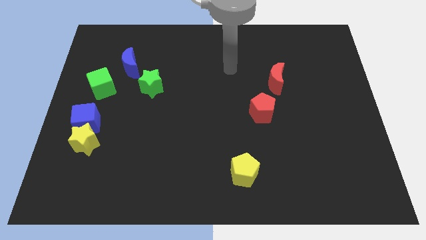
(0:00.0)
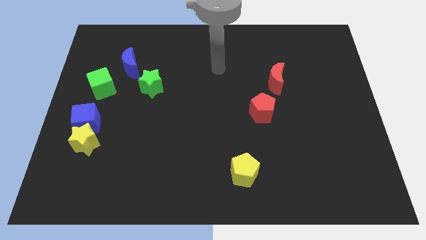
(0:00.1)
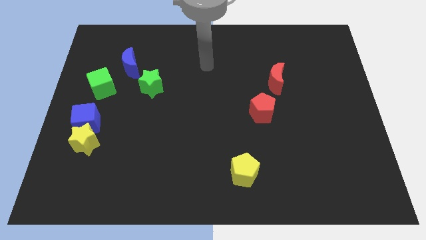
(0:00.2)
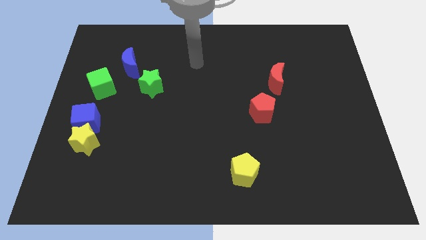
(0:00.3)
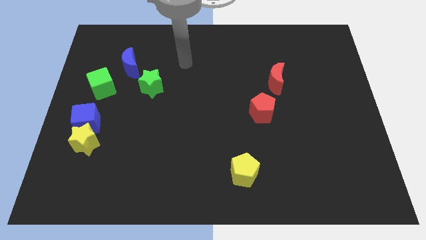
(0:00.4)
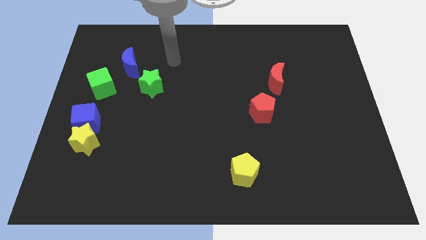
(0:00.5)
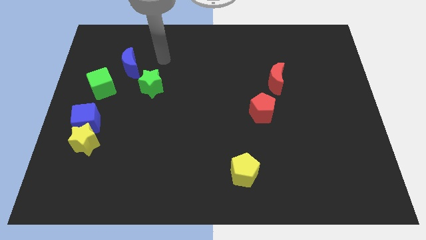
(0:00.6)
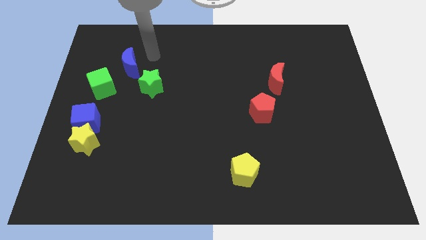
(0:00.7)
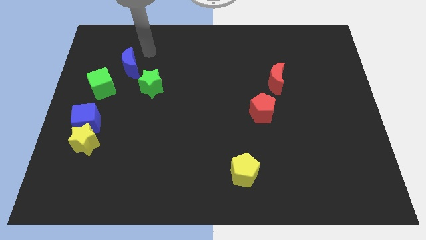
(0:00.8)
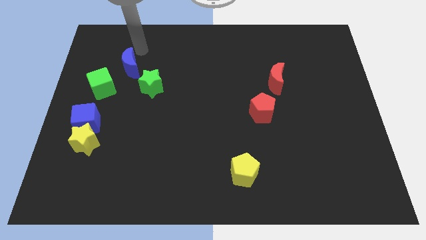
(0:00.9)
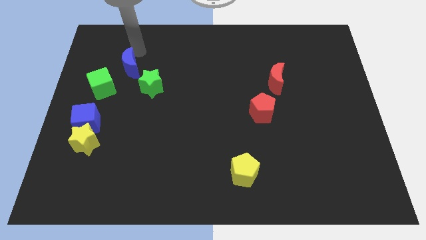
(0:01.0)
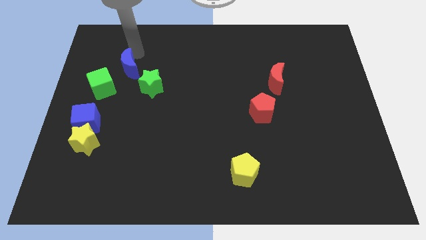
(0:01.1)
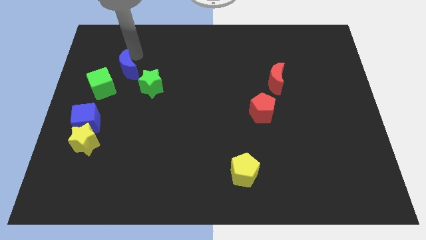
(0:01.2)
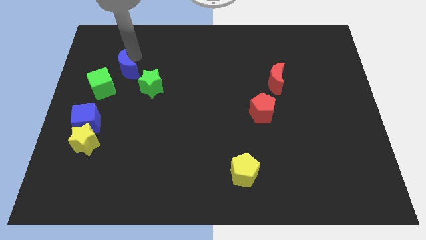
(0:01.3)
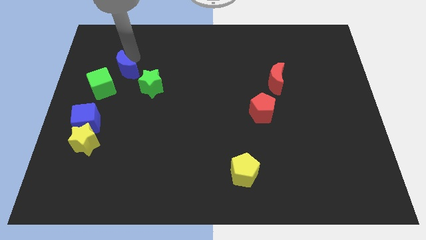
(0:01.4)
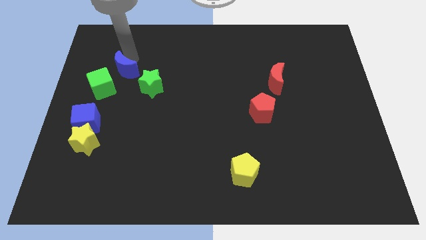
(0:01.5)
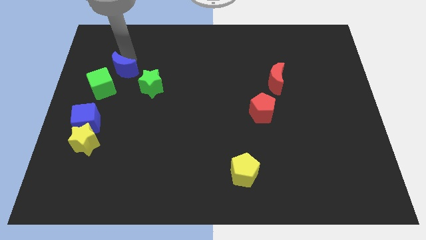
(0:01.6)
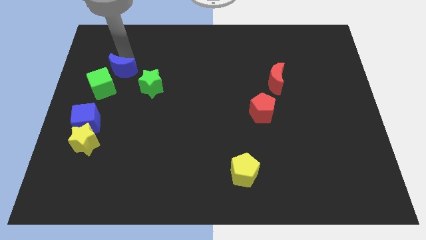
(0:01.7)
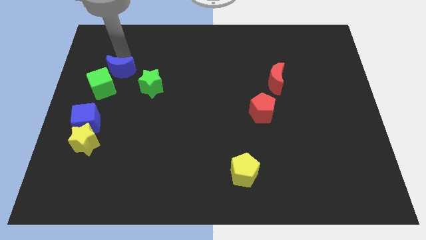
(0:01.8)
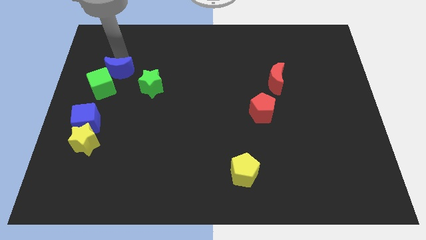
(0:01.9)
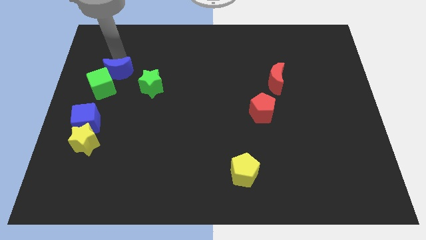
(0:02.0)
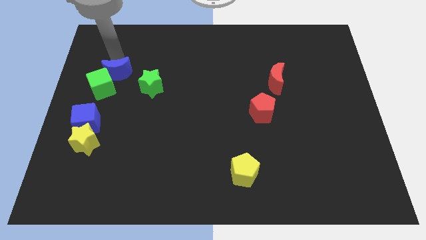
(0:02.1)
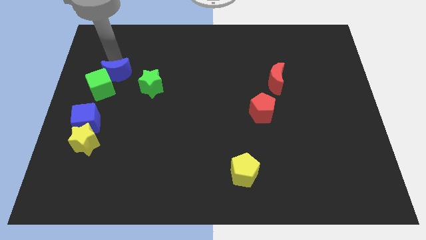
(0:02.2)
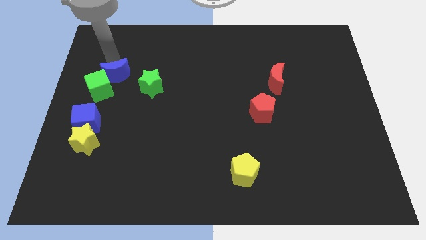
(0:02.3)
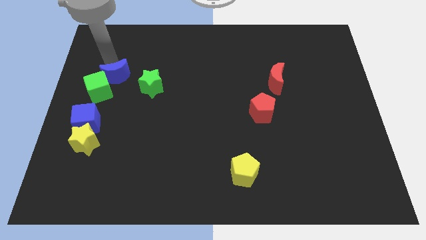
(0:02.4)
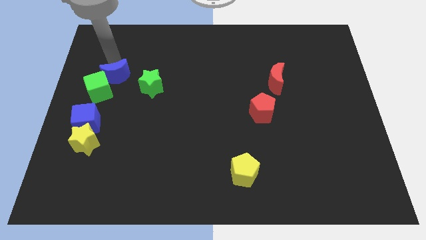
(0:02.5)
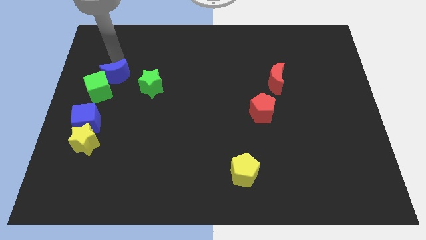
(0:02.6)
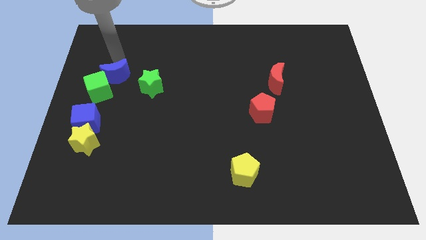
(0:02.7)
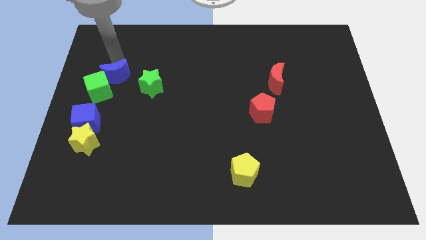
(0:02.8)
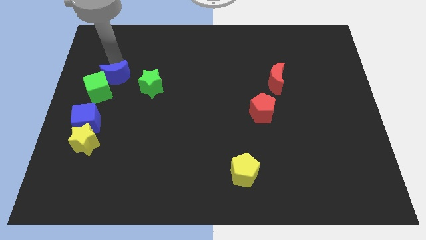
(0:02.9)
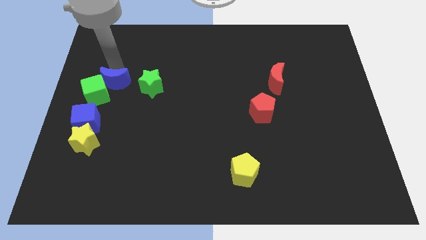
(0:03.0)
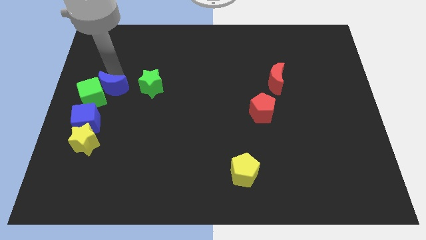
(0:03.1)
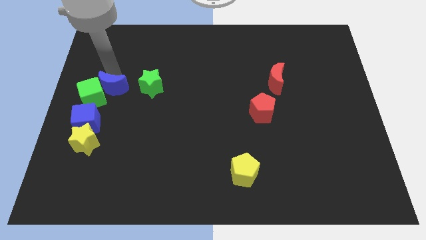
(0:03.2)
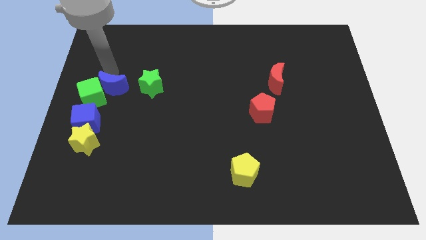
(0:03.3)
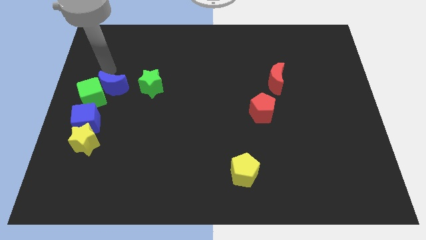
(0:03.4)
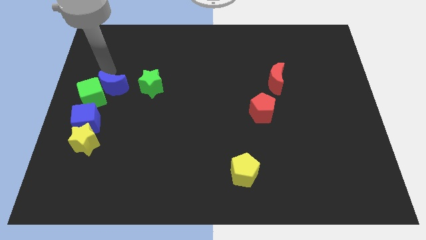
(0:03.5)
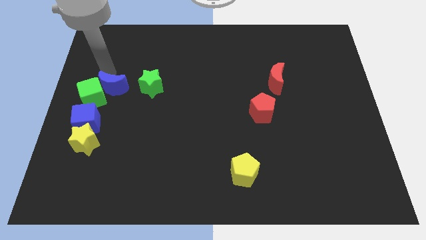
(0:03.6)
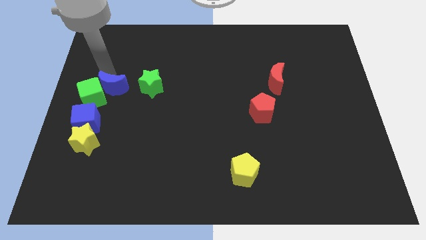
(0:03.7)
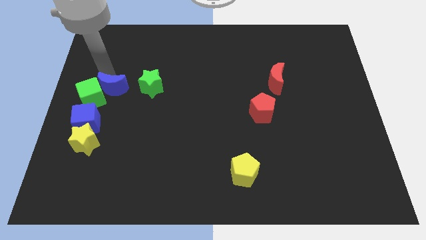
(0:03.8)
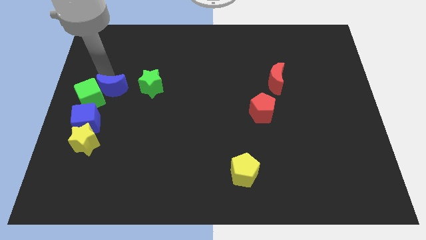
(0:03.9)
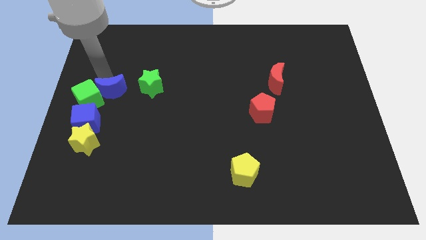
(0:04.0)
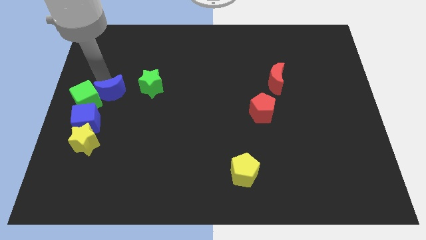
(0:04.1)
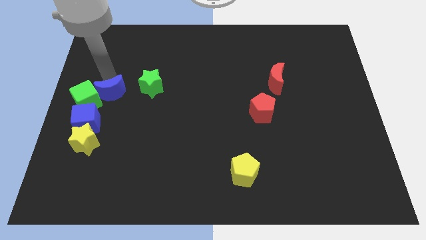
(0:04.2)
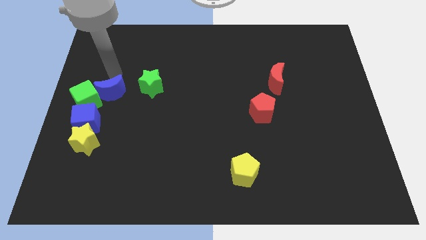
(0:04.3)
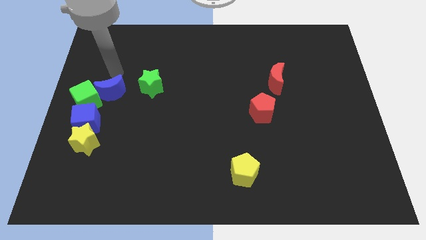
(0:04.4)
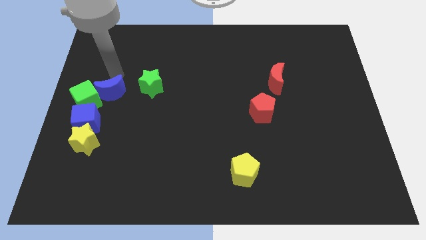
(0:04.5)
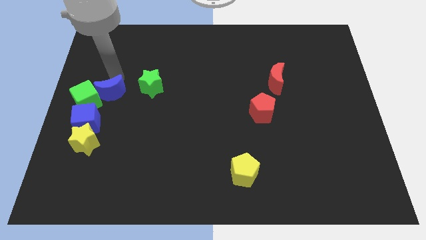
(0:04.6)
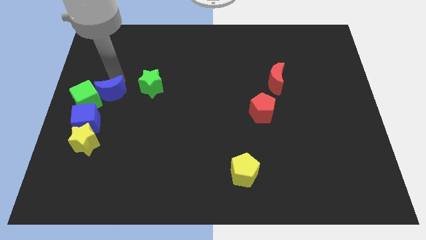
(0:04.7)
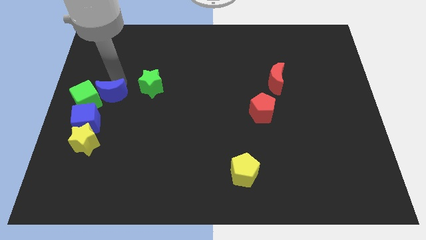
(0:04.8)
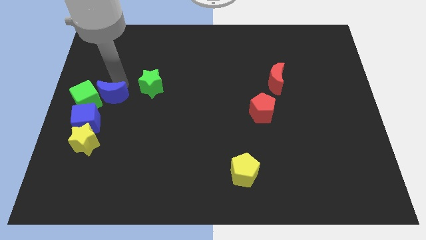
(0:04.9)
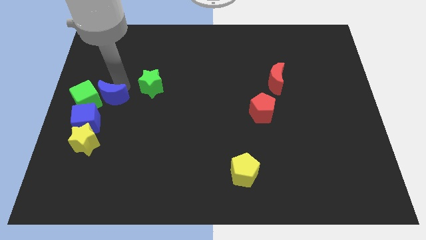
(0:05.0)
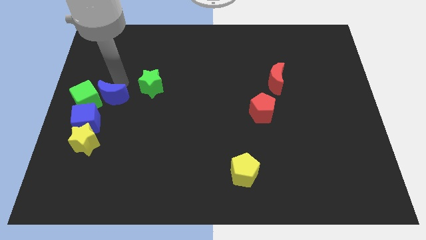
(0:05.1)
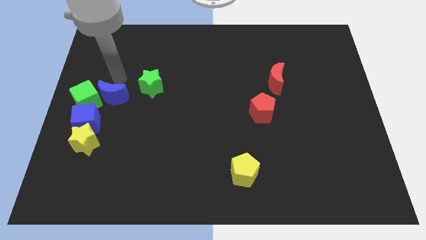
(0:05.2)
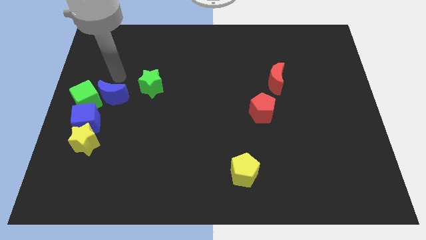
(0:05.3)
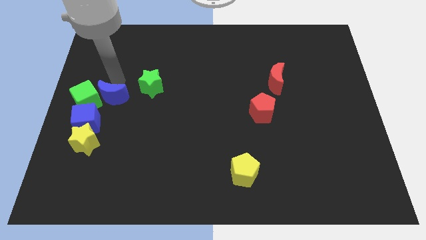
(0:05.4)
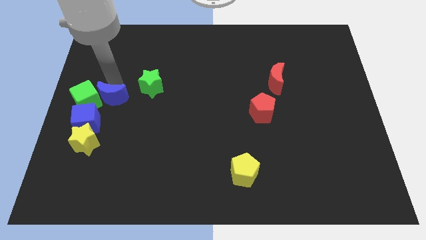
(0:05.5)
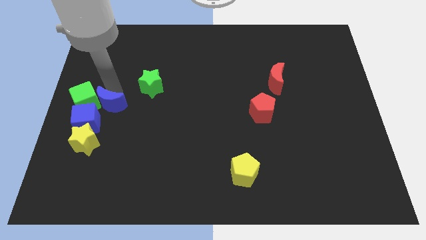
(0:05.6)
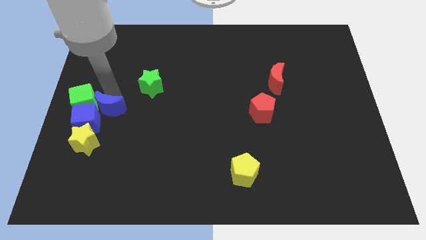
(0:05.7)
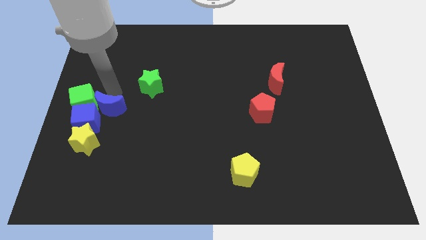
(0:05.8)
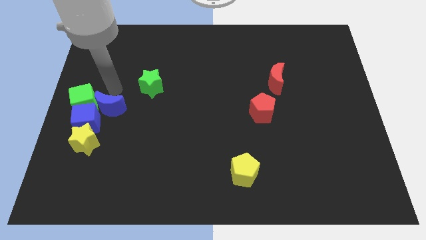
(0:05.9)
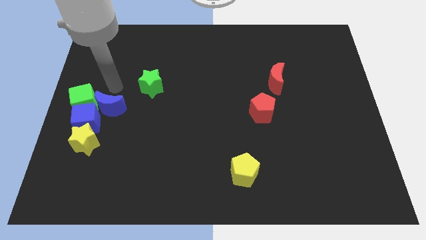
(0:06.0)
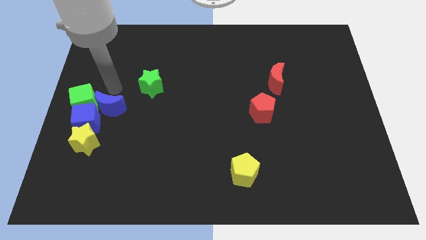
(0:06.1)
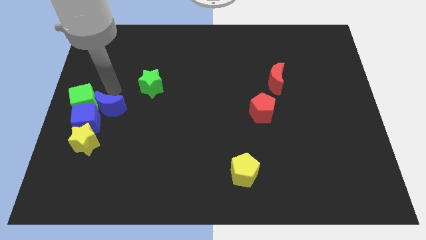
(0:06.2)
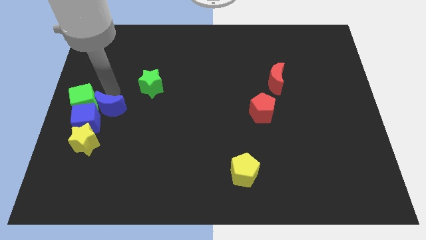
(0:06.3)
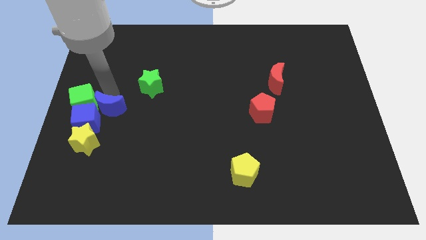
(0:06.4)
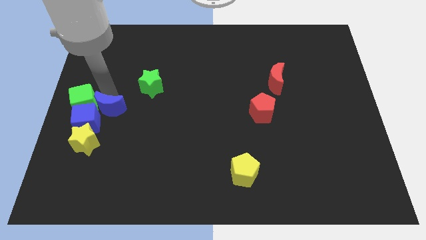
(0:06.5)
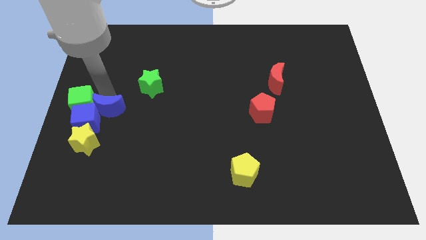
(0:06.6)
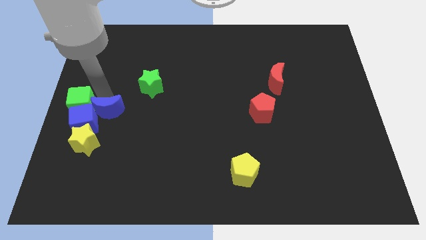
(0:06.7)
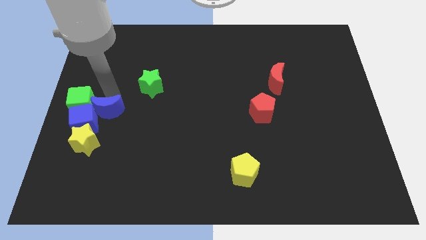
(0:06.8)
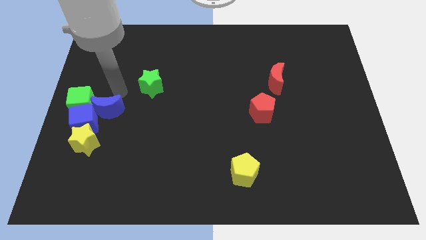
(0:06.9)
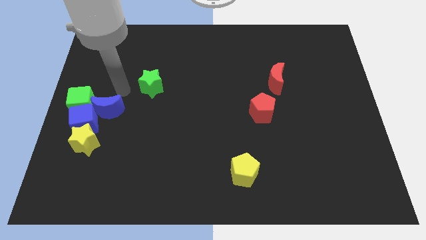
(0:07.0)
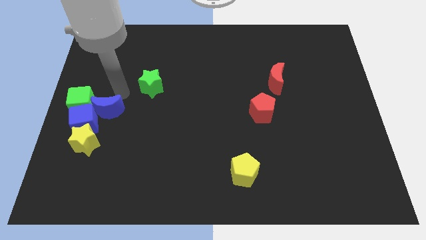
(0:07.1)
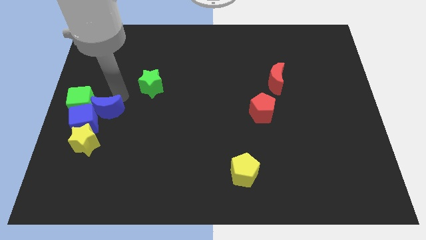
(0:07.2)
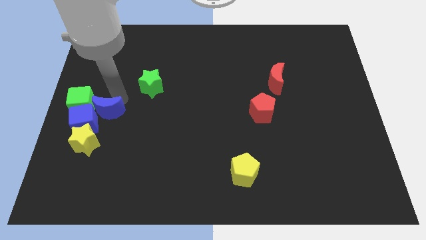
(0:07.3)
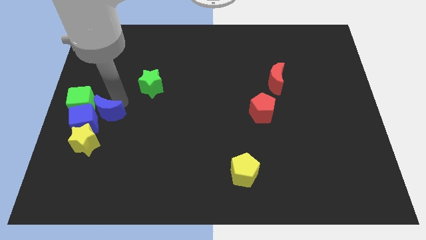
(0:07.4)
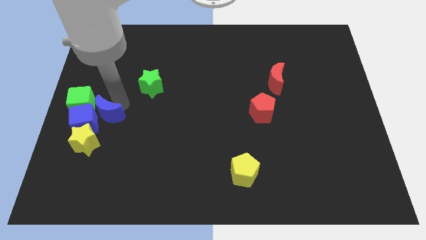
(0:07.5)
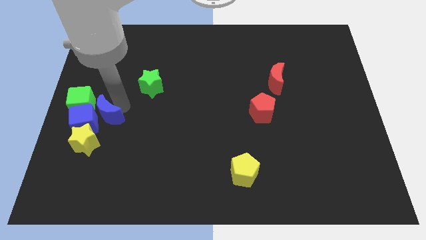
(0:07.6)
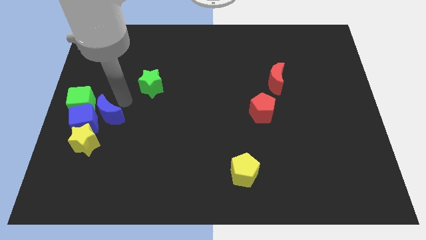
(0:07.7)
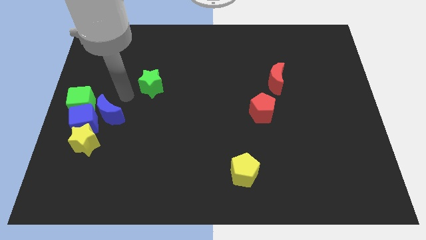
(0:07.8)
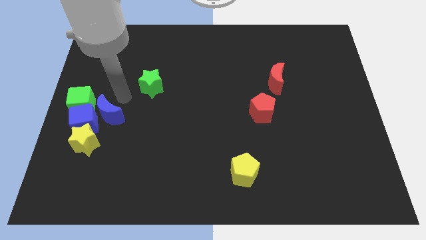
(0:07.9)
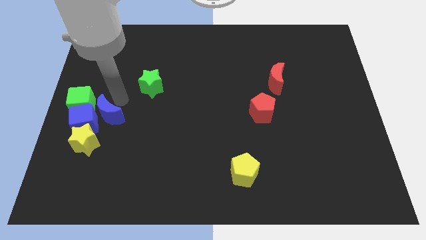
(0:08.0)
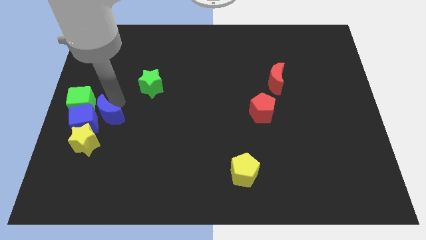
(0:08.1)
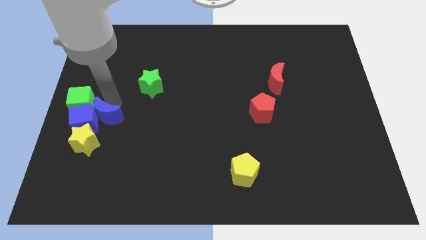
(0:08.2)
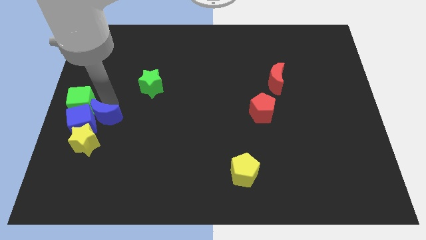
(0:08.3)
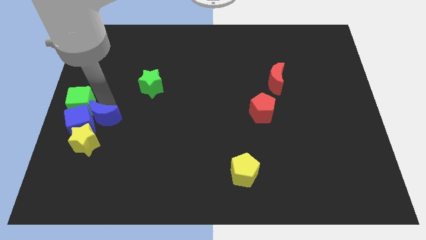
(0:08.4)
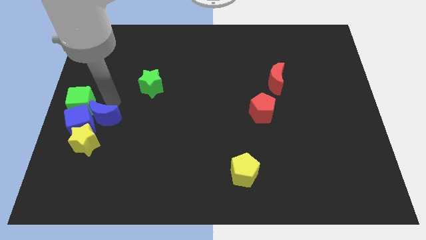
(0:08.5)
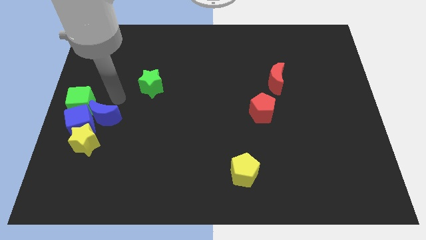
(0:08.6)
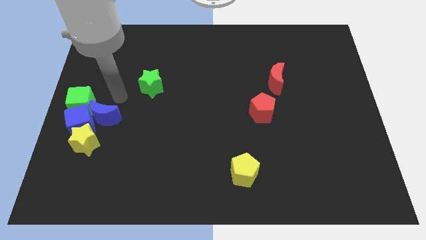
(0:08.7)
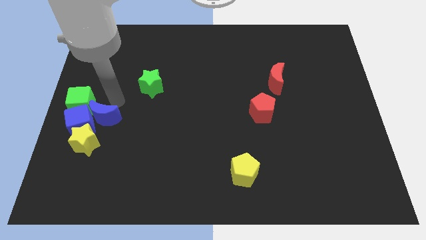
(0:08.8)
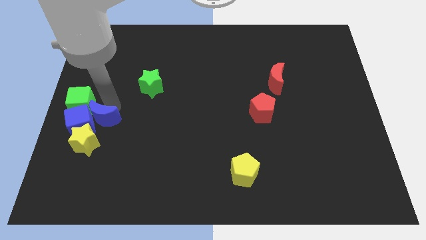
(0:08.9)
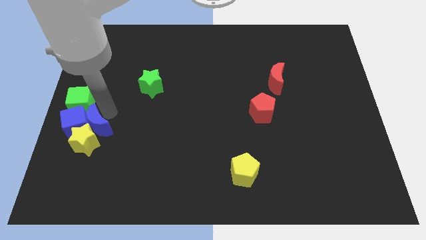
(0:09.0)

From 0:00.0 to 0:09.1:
slide the blue moon towards the yellow star
